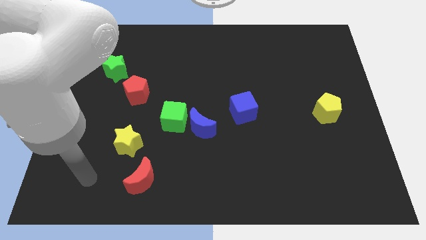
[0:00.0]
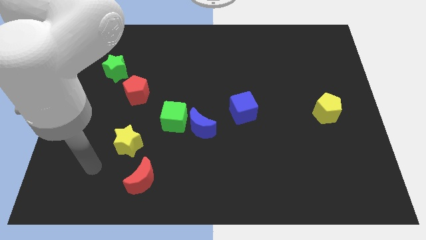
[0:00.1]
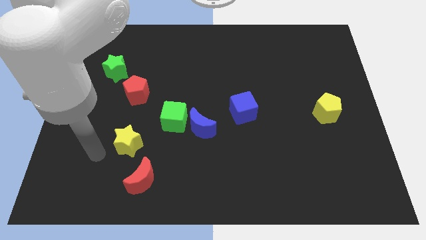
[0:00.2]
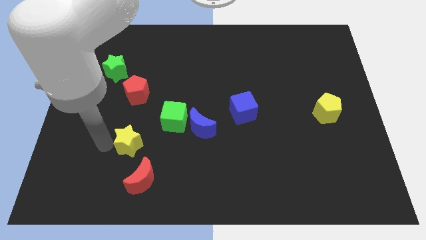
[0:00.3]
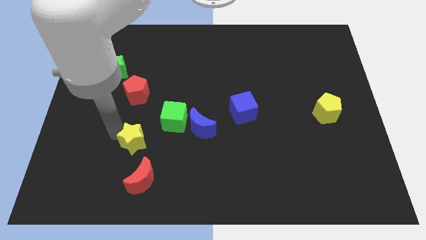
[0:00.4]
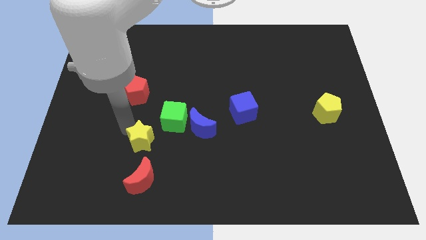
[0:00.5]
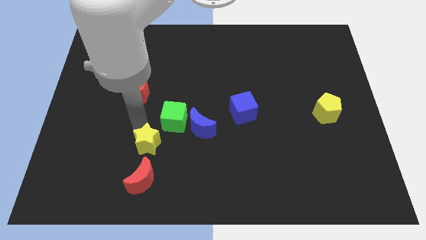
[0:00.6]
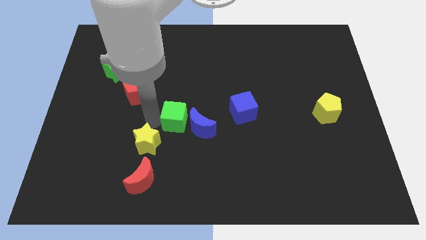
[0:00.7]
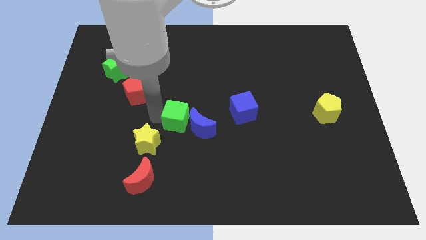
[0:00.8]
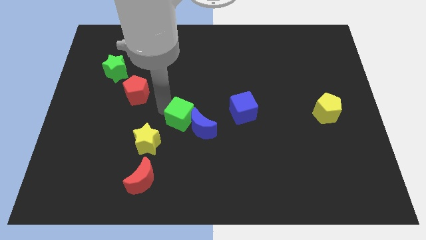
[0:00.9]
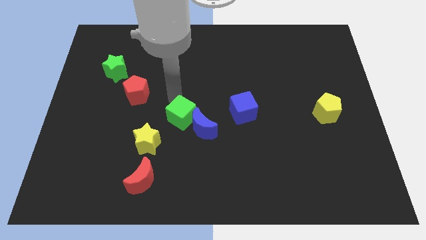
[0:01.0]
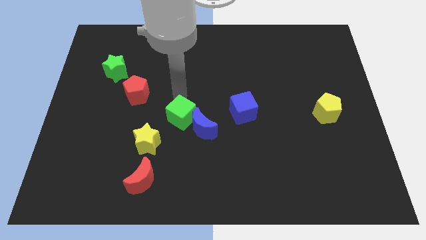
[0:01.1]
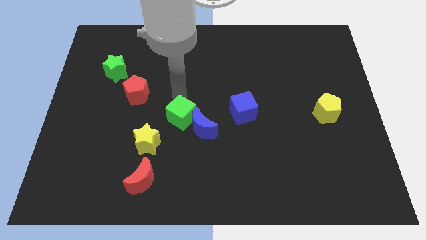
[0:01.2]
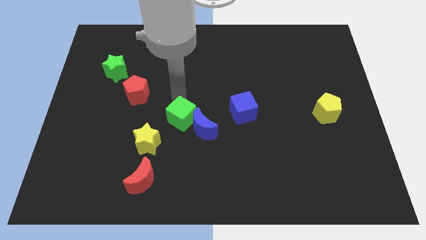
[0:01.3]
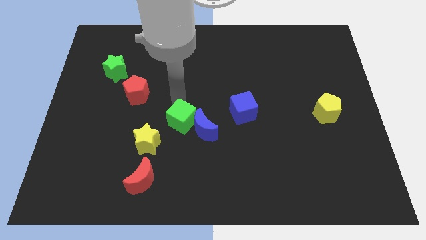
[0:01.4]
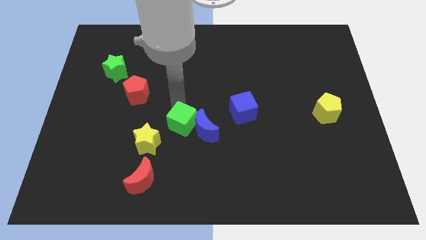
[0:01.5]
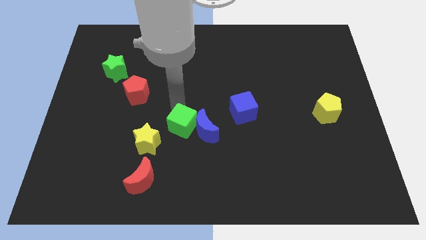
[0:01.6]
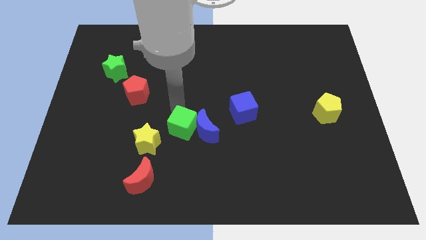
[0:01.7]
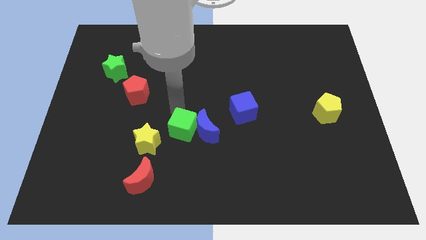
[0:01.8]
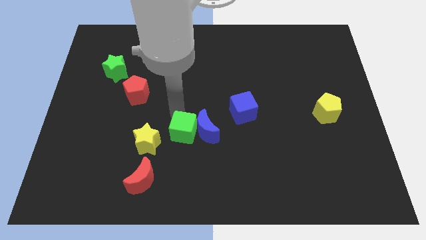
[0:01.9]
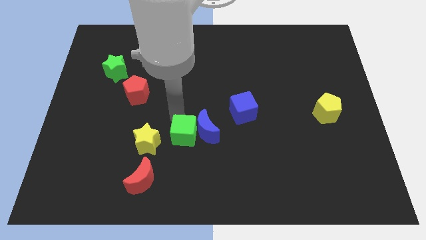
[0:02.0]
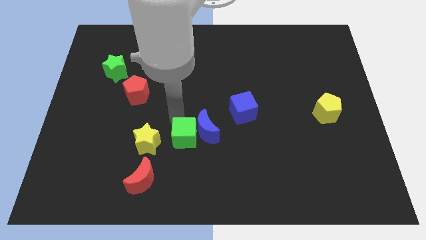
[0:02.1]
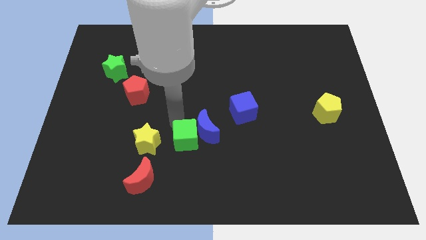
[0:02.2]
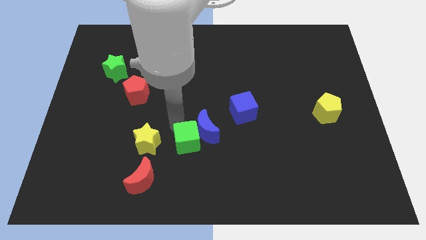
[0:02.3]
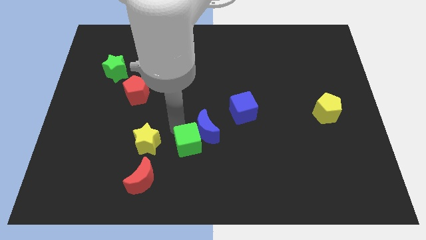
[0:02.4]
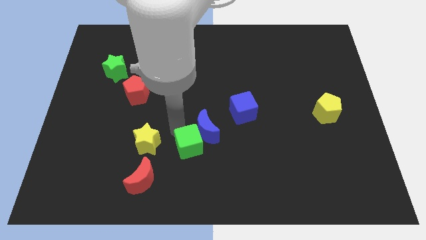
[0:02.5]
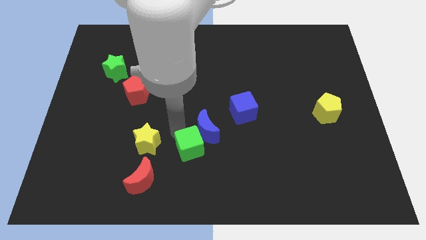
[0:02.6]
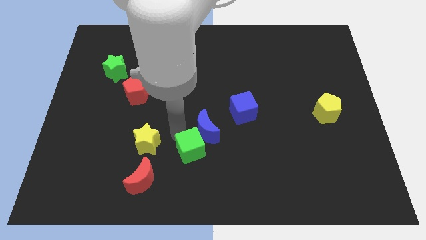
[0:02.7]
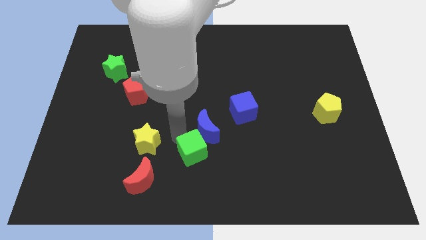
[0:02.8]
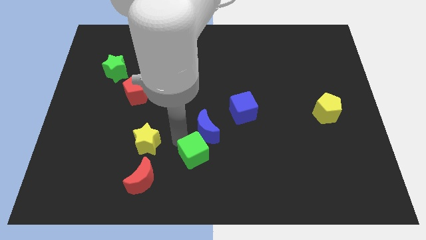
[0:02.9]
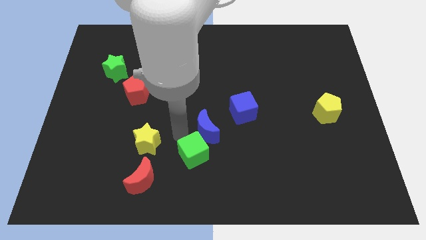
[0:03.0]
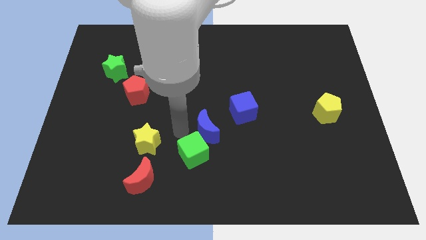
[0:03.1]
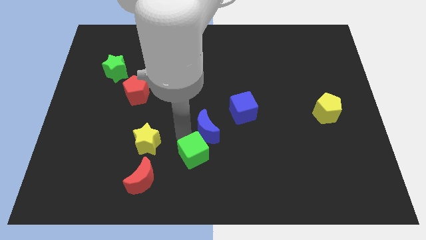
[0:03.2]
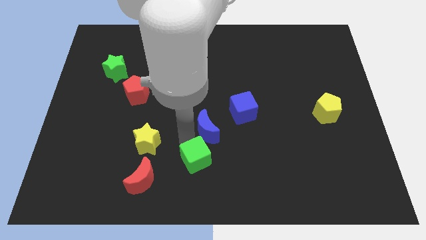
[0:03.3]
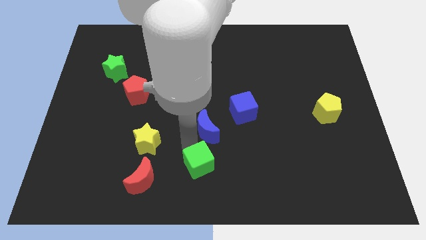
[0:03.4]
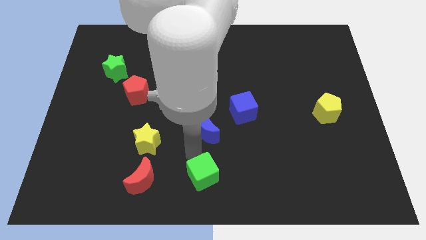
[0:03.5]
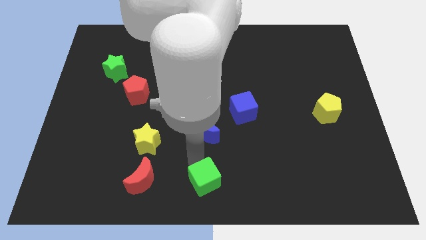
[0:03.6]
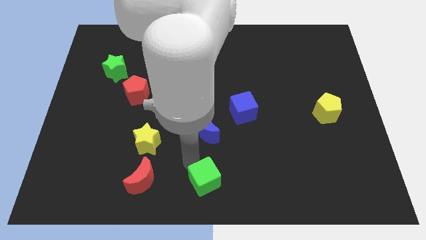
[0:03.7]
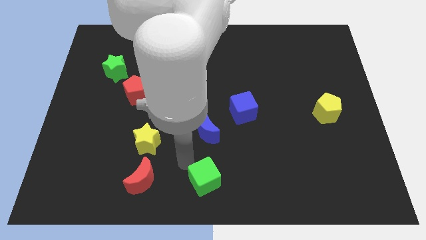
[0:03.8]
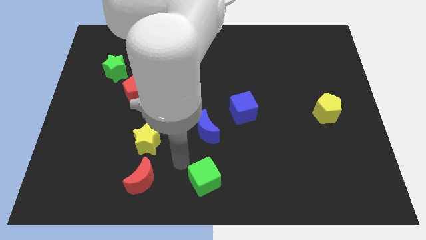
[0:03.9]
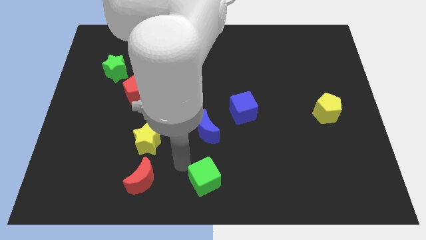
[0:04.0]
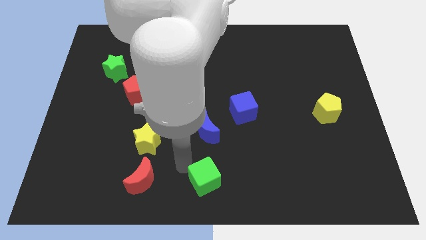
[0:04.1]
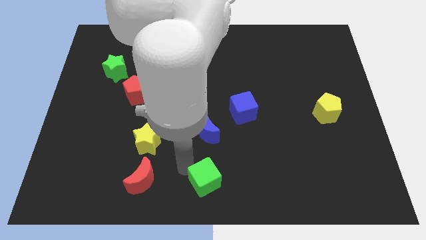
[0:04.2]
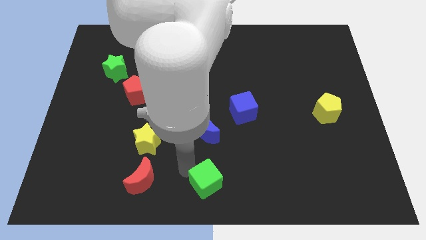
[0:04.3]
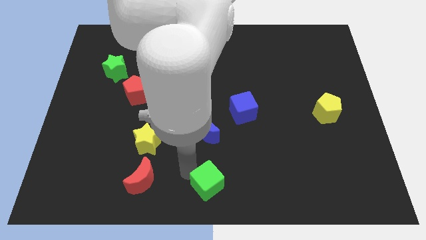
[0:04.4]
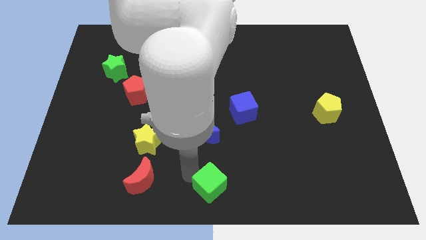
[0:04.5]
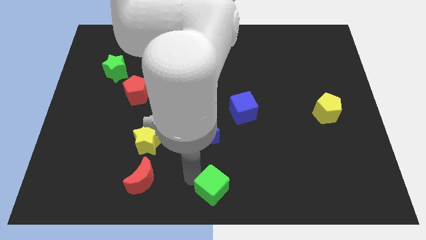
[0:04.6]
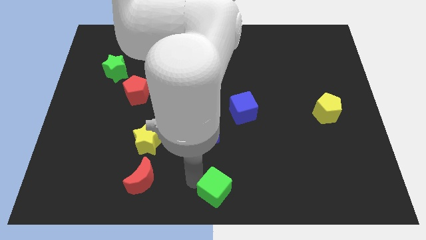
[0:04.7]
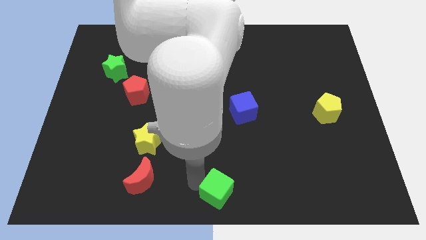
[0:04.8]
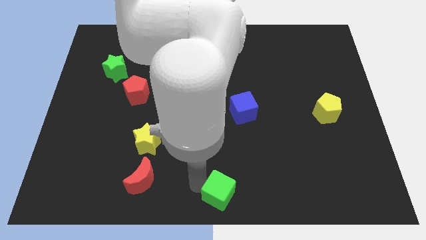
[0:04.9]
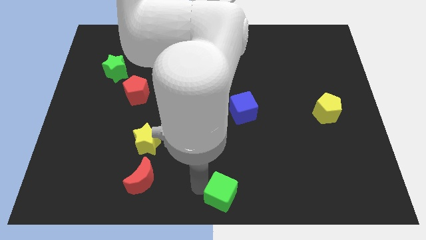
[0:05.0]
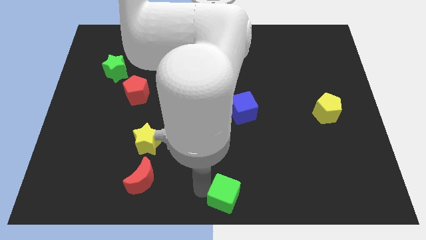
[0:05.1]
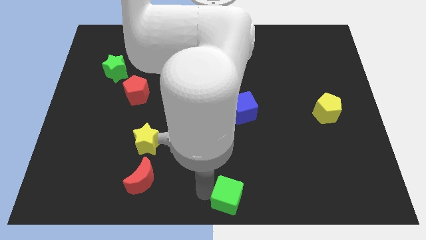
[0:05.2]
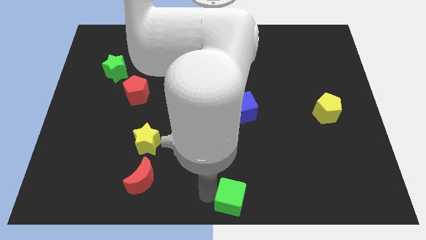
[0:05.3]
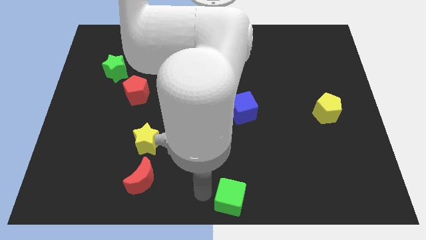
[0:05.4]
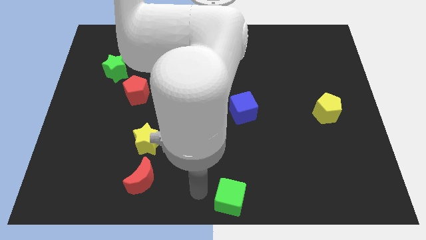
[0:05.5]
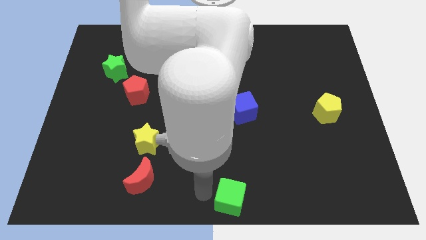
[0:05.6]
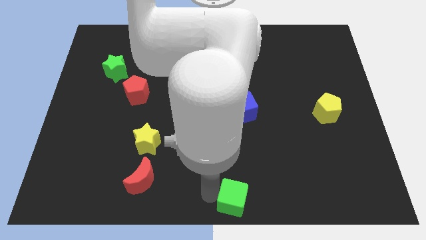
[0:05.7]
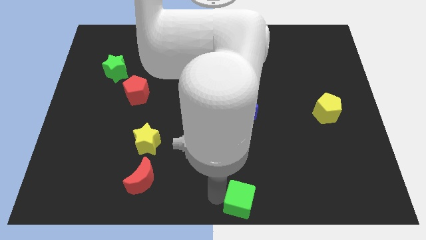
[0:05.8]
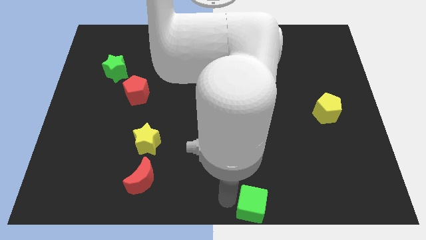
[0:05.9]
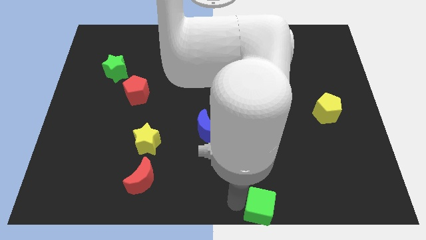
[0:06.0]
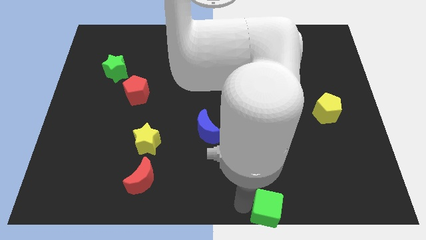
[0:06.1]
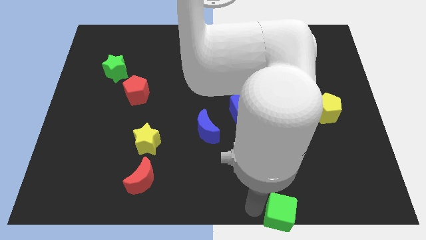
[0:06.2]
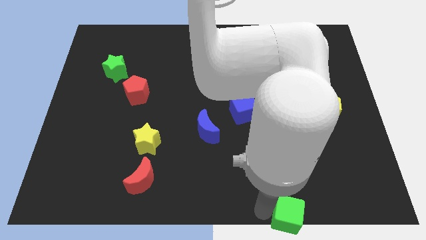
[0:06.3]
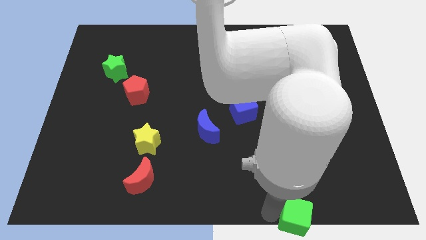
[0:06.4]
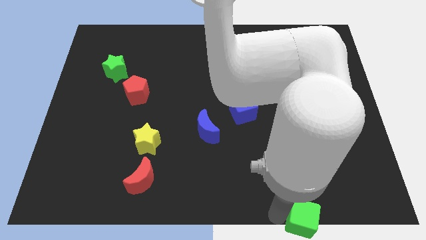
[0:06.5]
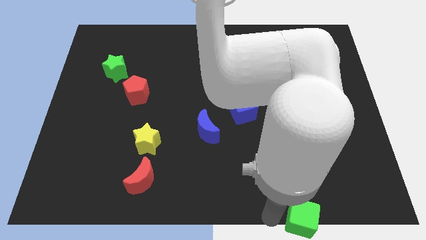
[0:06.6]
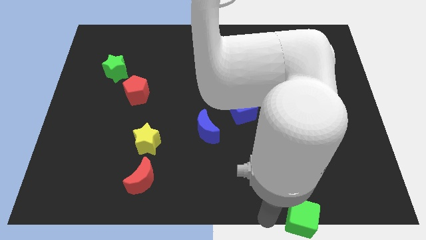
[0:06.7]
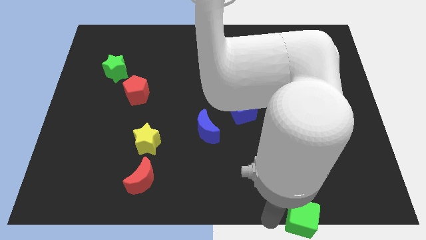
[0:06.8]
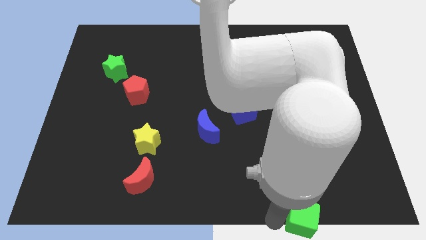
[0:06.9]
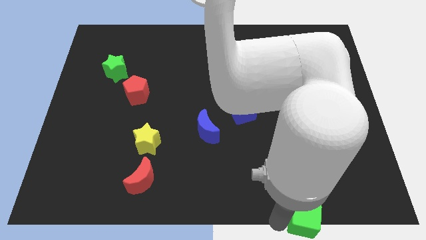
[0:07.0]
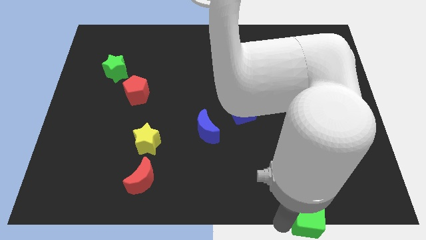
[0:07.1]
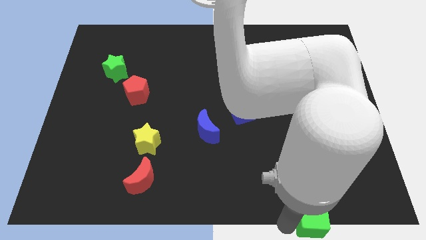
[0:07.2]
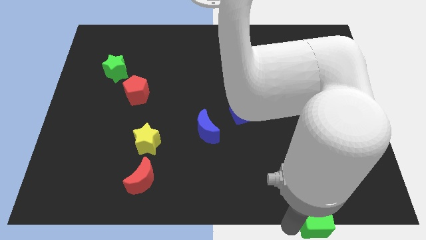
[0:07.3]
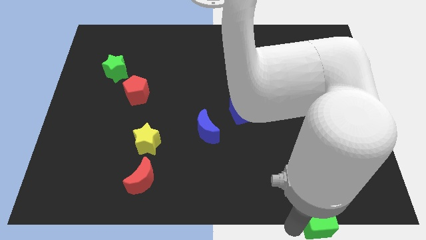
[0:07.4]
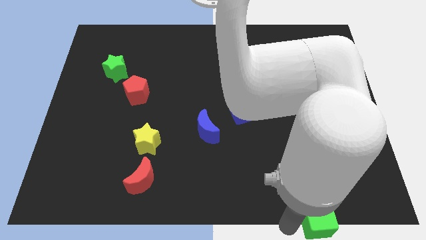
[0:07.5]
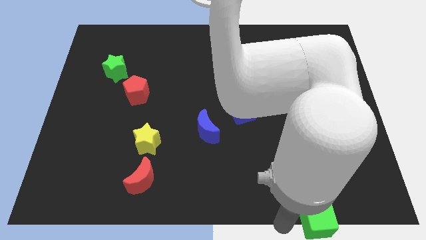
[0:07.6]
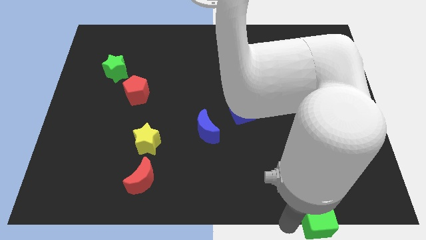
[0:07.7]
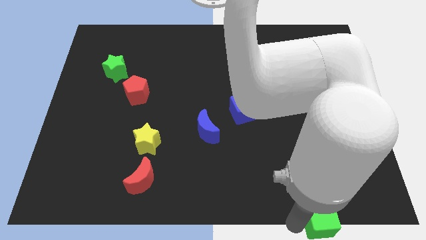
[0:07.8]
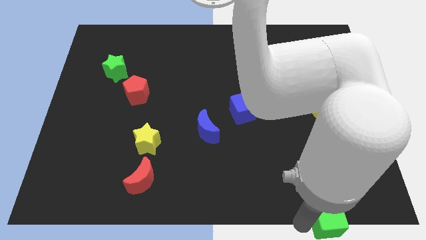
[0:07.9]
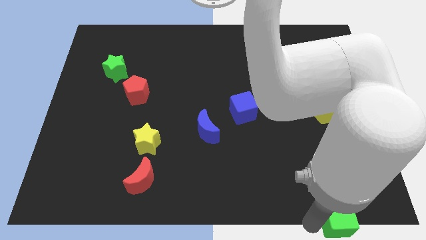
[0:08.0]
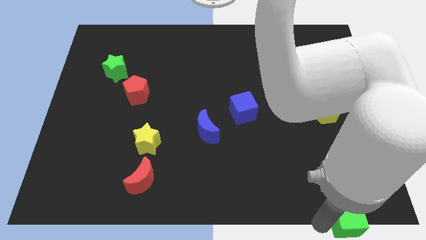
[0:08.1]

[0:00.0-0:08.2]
move the green cube to the lower right corner
